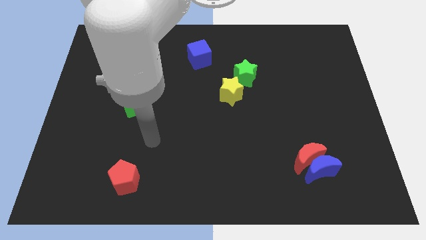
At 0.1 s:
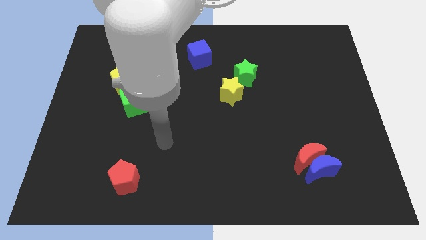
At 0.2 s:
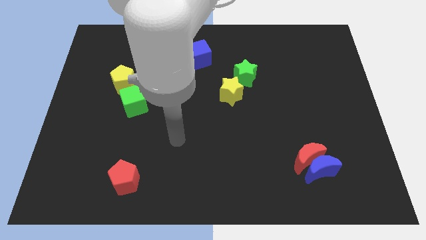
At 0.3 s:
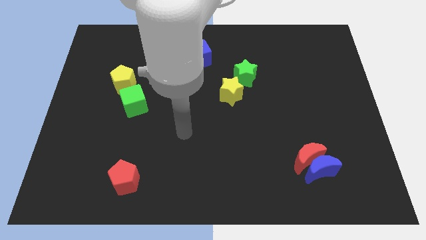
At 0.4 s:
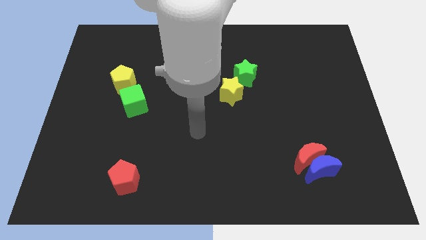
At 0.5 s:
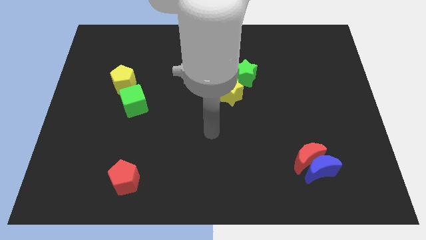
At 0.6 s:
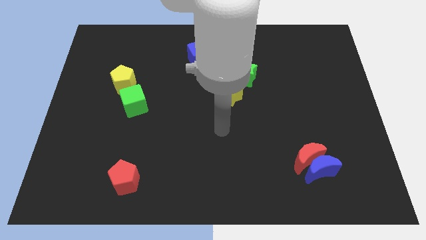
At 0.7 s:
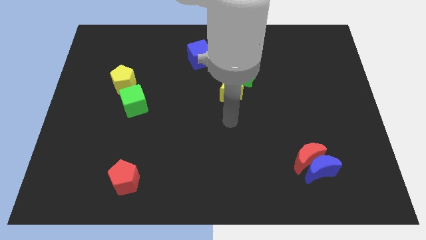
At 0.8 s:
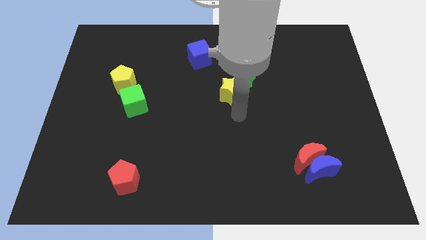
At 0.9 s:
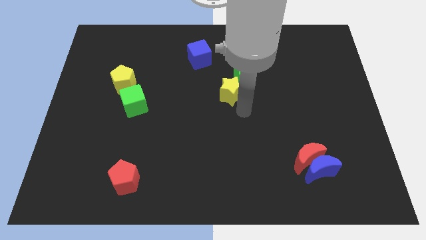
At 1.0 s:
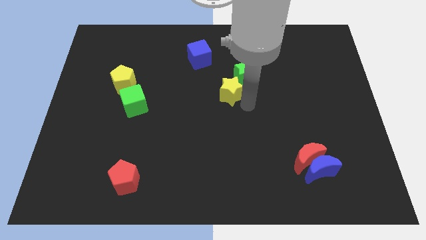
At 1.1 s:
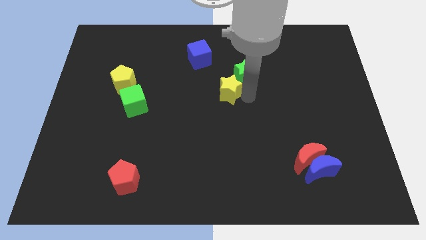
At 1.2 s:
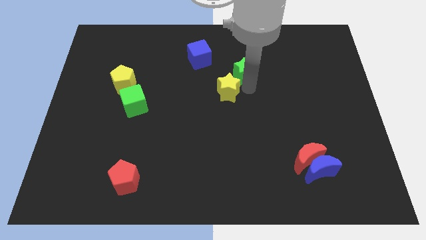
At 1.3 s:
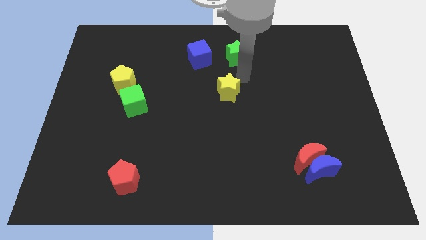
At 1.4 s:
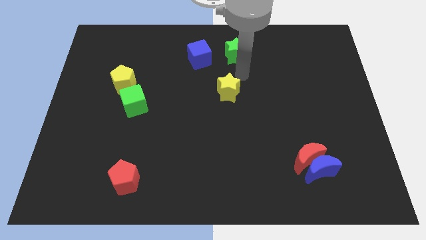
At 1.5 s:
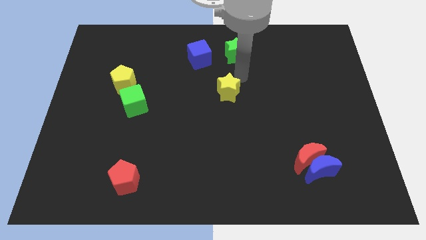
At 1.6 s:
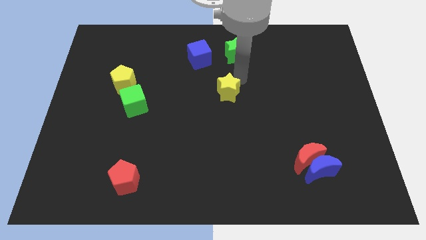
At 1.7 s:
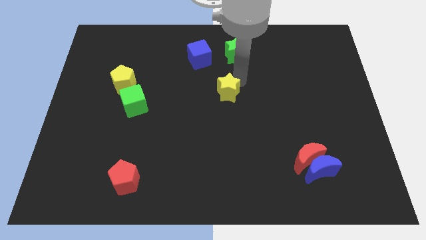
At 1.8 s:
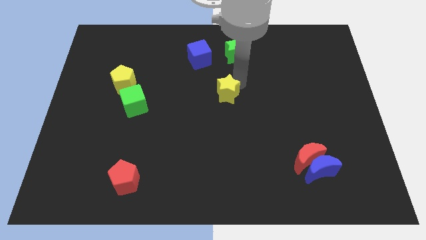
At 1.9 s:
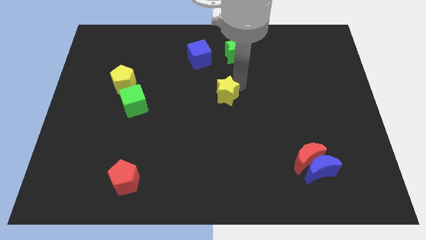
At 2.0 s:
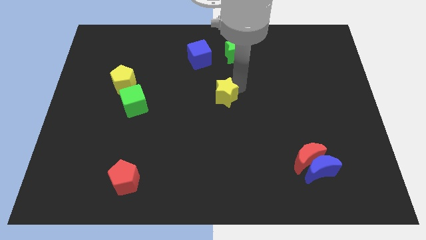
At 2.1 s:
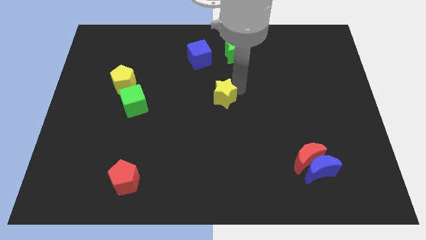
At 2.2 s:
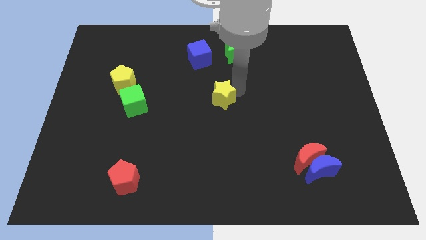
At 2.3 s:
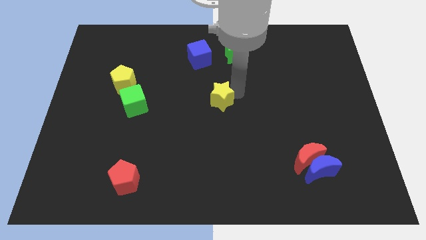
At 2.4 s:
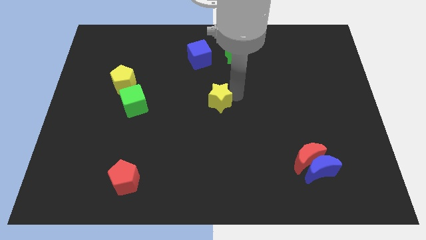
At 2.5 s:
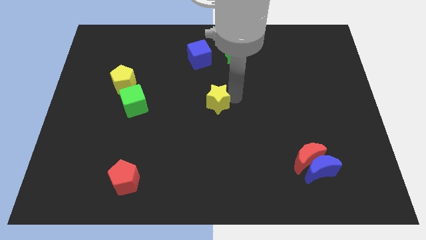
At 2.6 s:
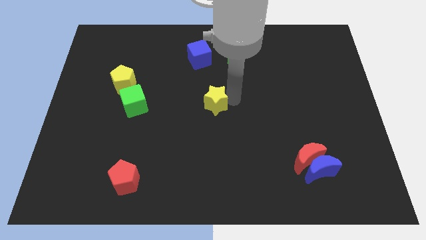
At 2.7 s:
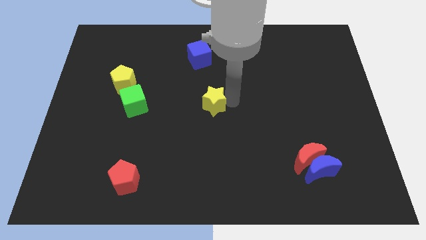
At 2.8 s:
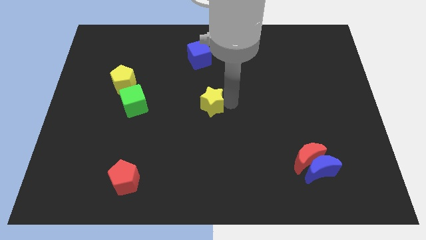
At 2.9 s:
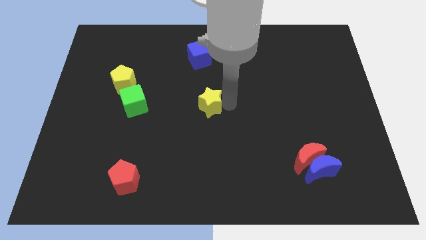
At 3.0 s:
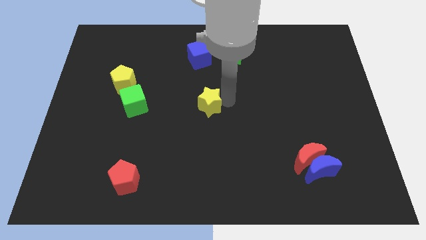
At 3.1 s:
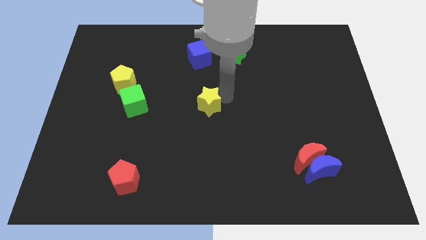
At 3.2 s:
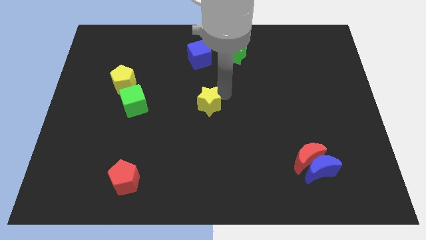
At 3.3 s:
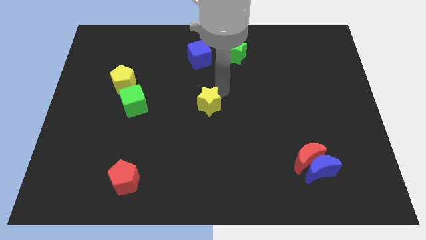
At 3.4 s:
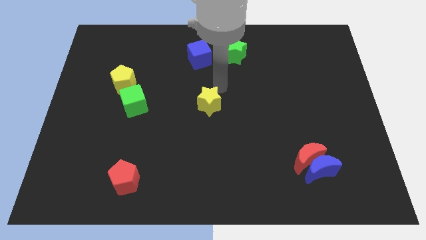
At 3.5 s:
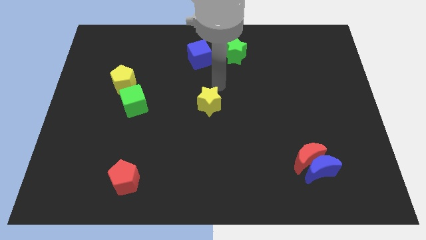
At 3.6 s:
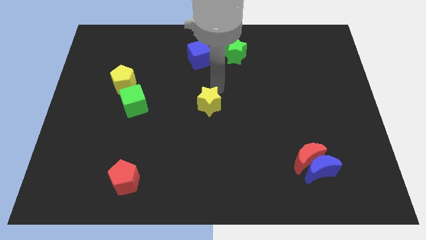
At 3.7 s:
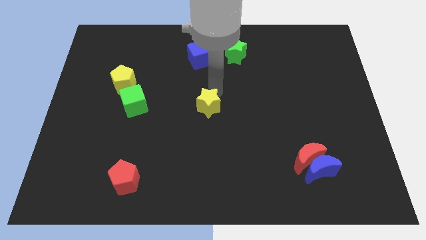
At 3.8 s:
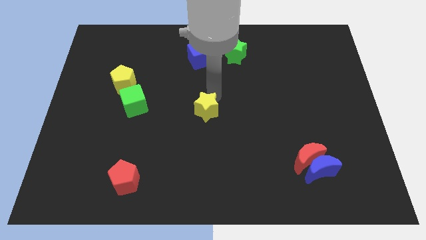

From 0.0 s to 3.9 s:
slightly slide the yellow star diagonally downwards and to the left

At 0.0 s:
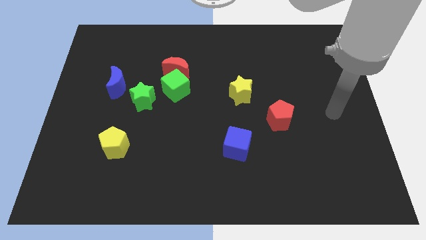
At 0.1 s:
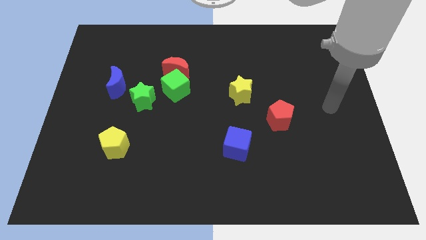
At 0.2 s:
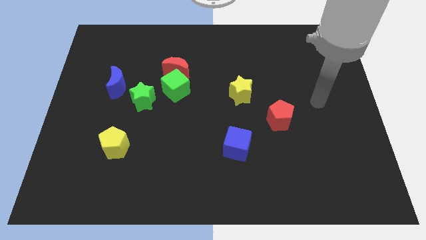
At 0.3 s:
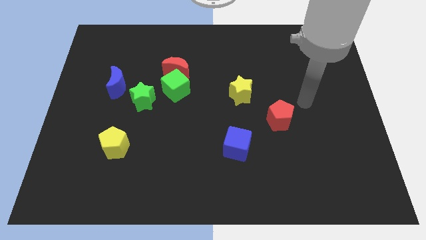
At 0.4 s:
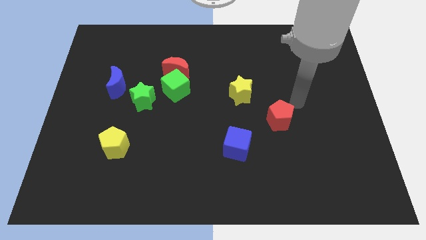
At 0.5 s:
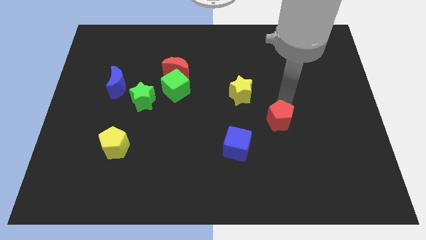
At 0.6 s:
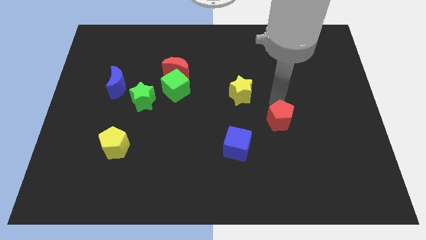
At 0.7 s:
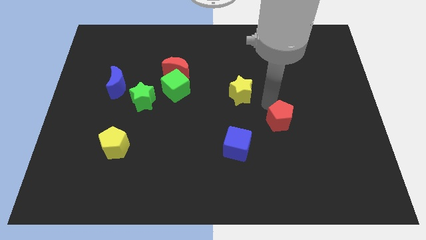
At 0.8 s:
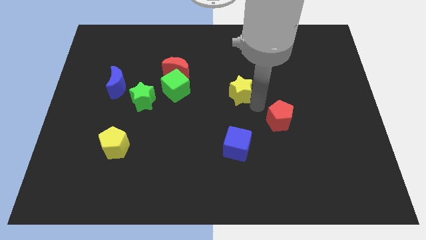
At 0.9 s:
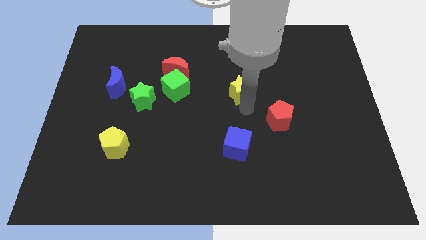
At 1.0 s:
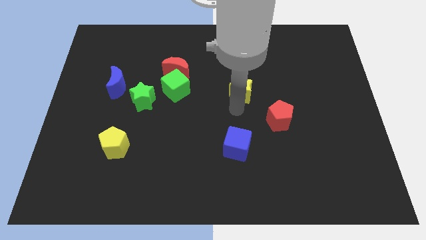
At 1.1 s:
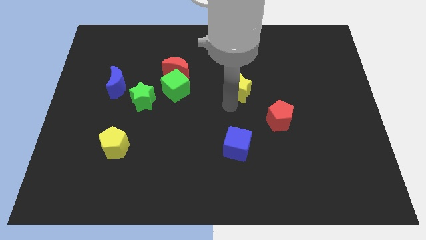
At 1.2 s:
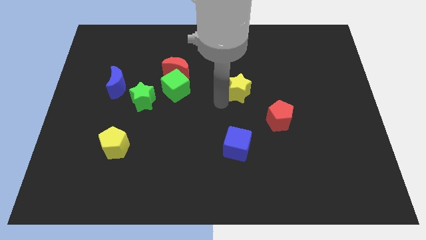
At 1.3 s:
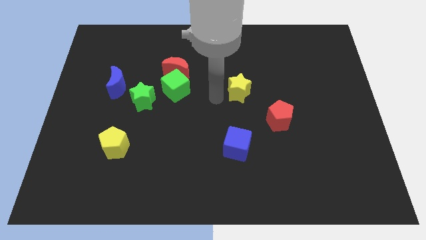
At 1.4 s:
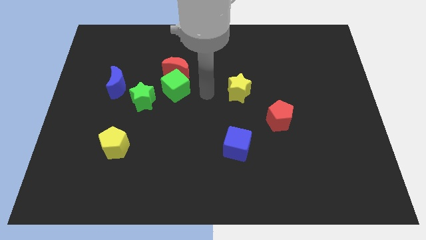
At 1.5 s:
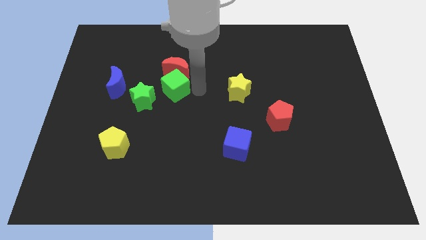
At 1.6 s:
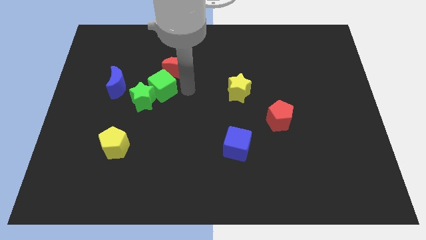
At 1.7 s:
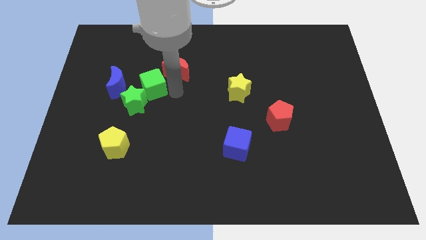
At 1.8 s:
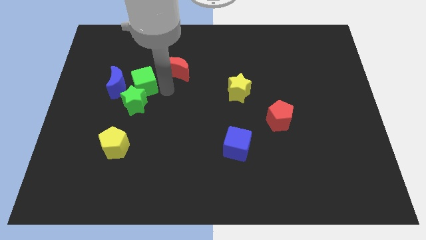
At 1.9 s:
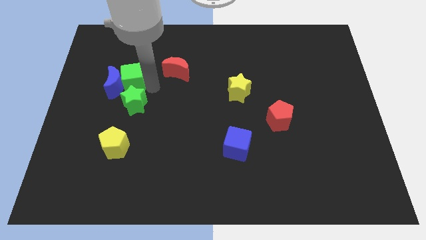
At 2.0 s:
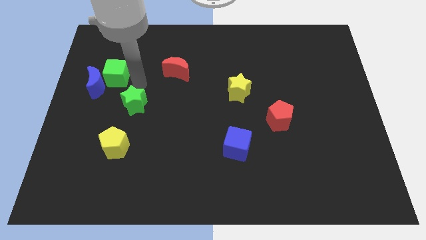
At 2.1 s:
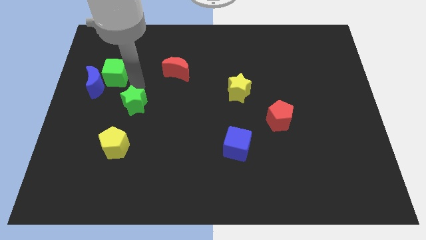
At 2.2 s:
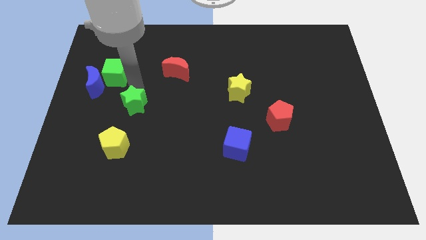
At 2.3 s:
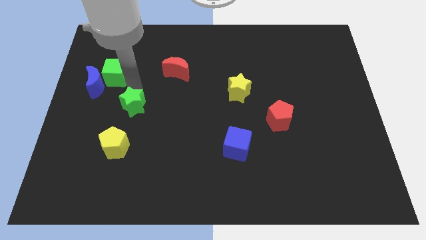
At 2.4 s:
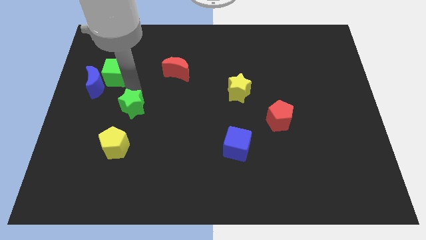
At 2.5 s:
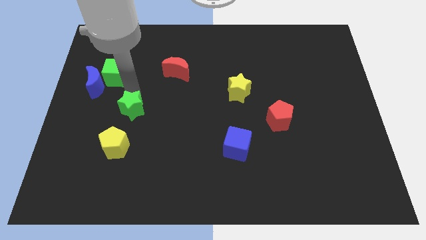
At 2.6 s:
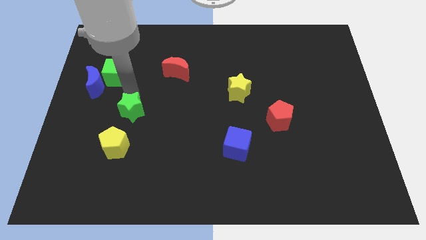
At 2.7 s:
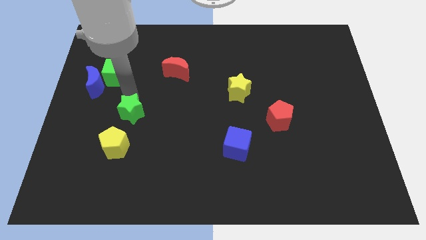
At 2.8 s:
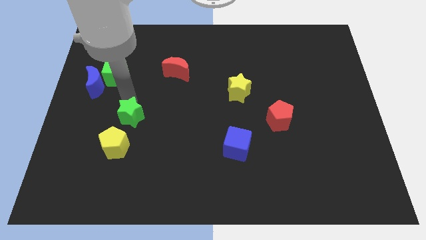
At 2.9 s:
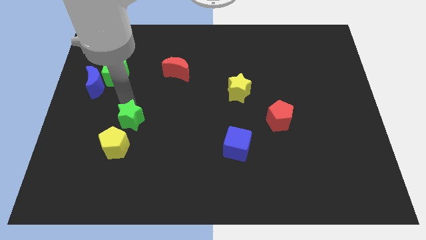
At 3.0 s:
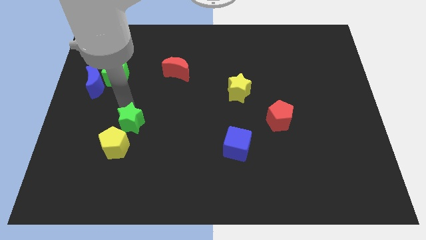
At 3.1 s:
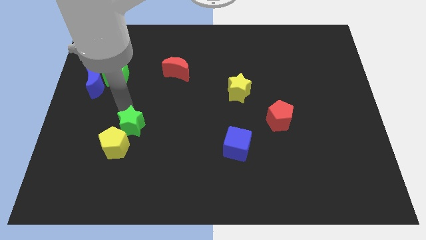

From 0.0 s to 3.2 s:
push the green star slightly down

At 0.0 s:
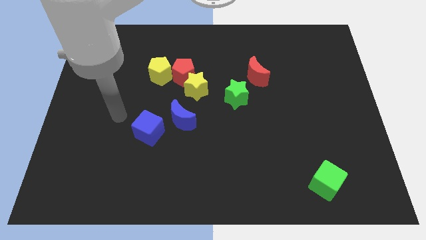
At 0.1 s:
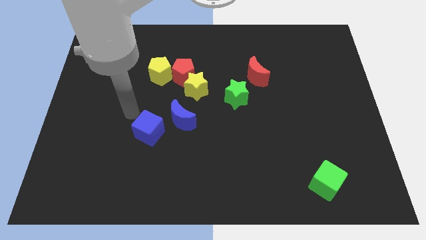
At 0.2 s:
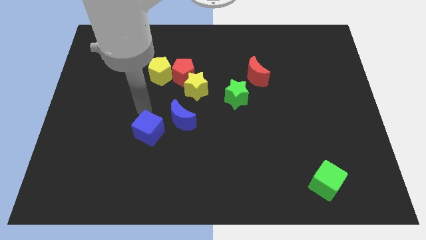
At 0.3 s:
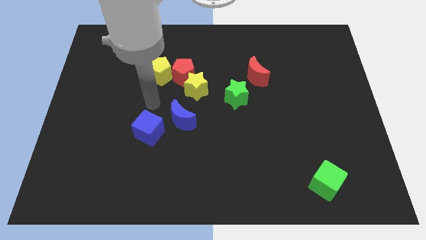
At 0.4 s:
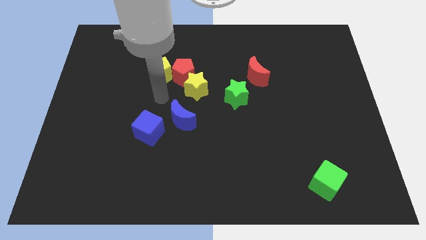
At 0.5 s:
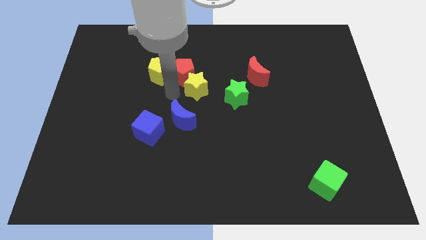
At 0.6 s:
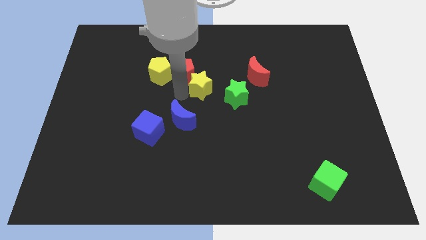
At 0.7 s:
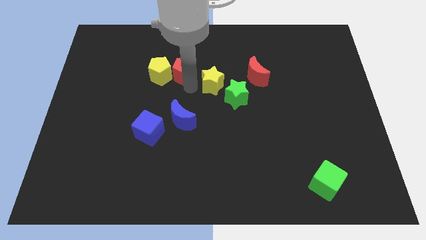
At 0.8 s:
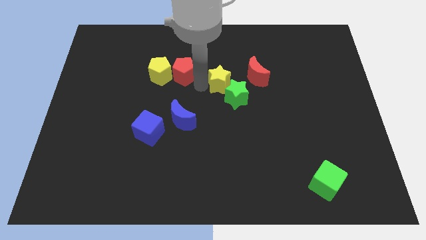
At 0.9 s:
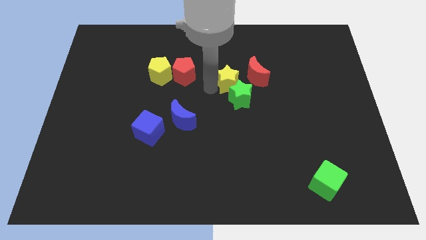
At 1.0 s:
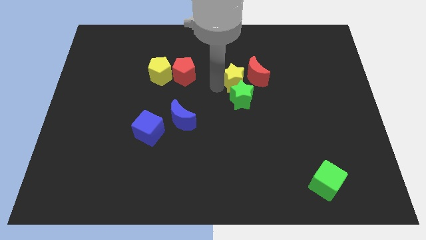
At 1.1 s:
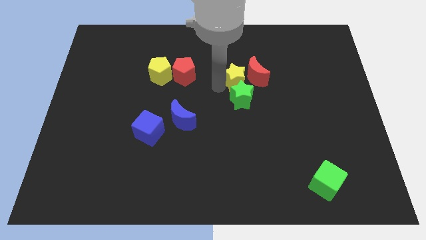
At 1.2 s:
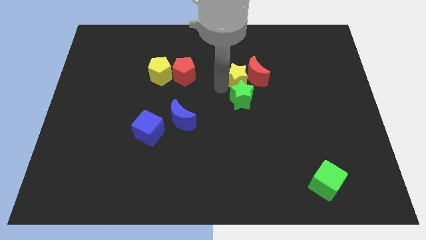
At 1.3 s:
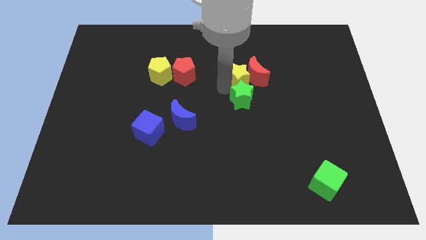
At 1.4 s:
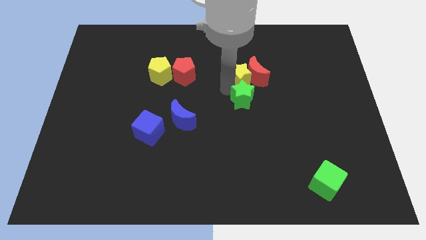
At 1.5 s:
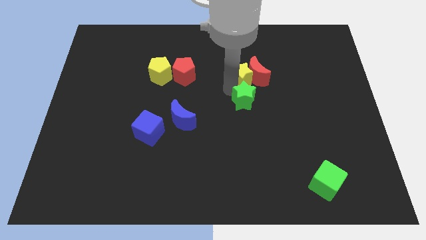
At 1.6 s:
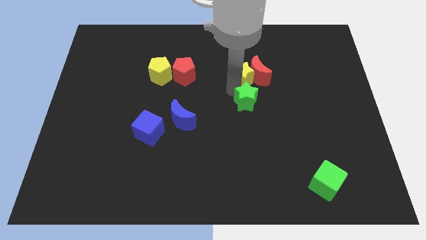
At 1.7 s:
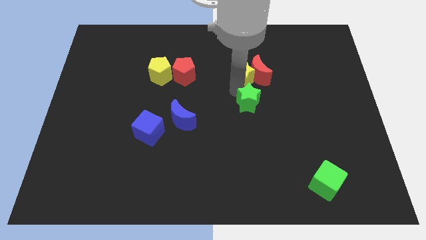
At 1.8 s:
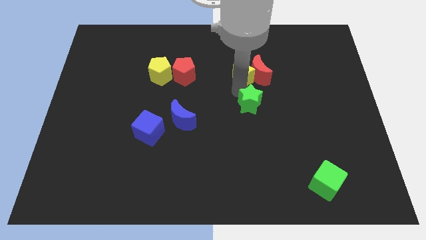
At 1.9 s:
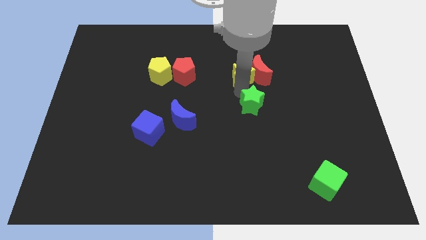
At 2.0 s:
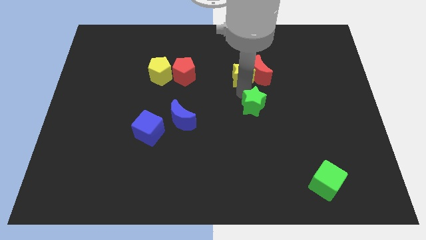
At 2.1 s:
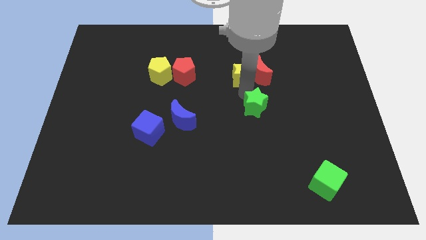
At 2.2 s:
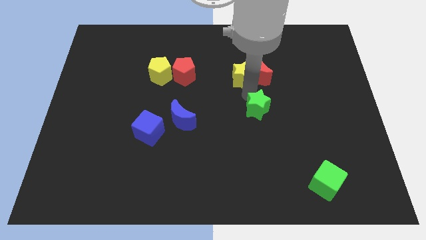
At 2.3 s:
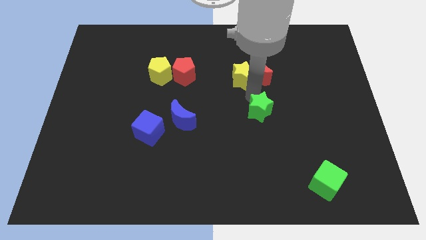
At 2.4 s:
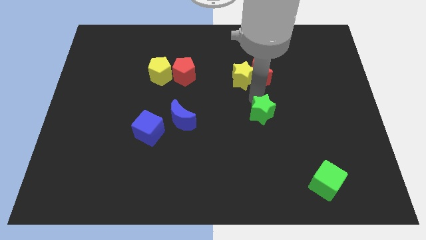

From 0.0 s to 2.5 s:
push the green star slightly down and then right
